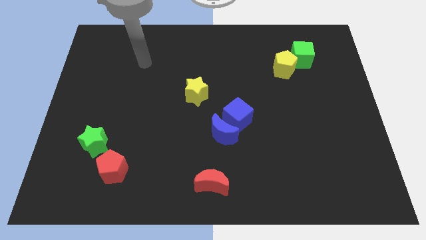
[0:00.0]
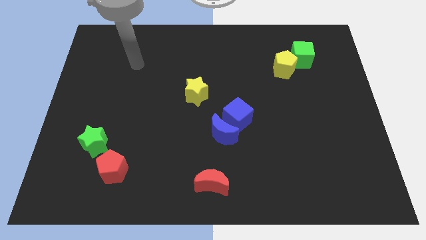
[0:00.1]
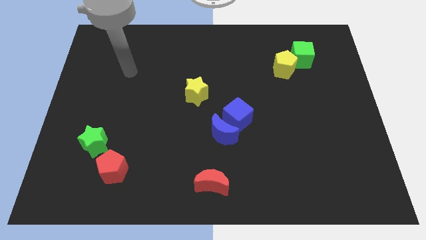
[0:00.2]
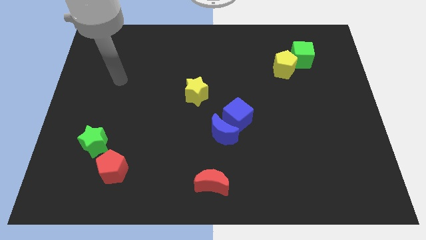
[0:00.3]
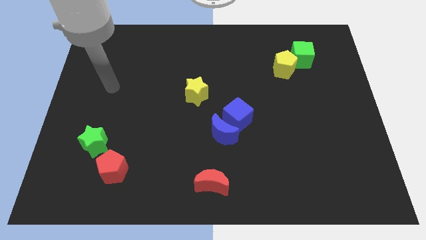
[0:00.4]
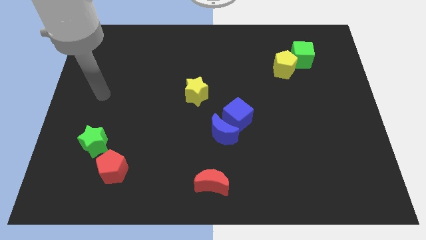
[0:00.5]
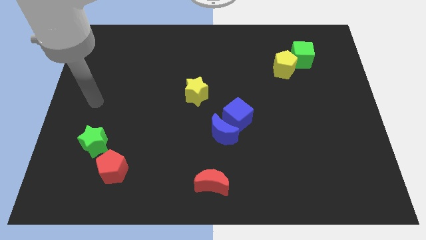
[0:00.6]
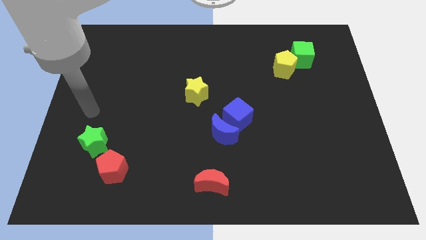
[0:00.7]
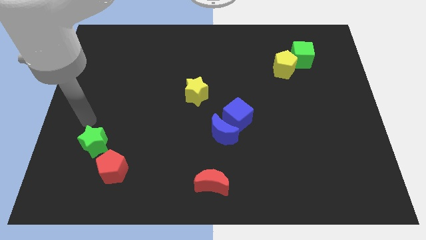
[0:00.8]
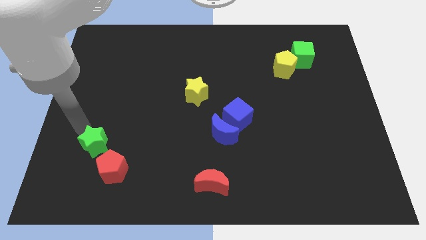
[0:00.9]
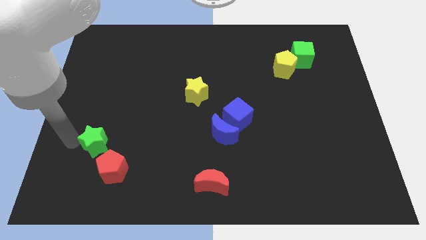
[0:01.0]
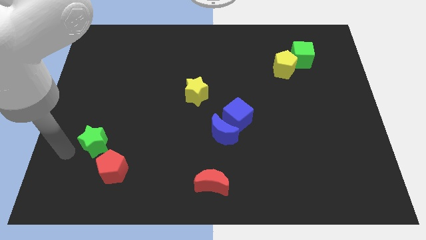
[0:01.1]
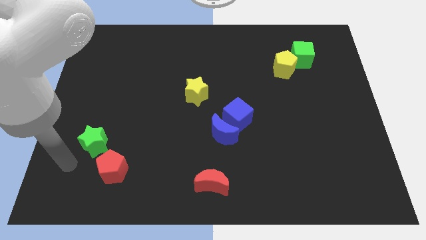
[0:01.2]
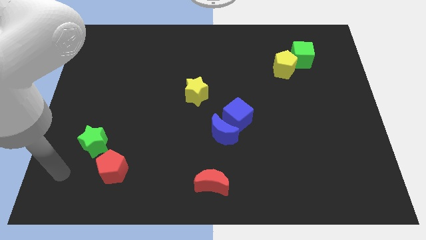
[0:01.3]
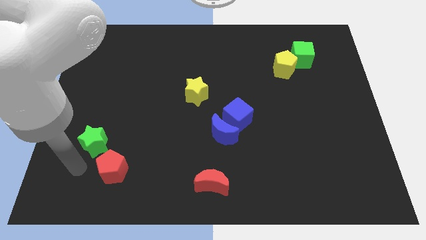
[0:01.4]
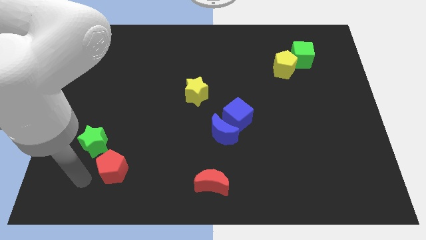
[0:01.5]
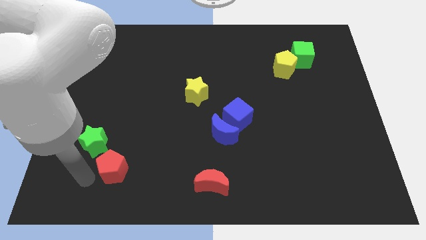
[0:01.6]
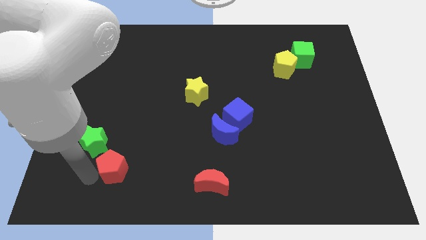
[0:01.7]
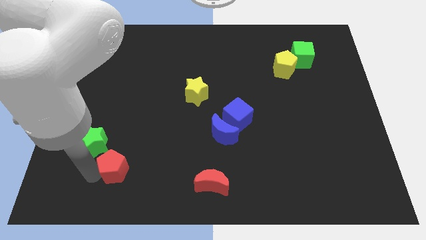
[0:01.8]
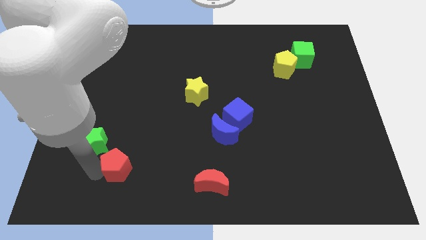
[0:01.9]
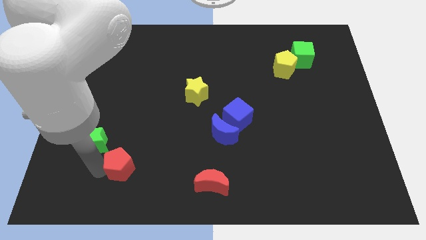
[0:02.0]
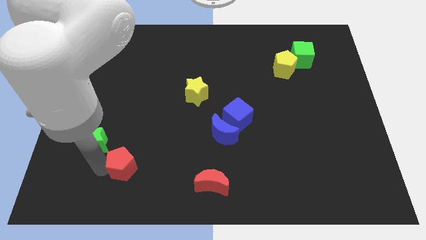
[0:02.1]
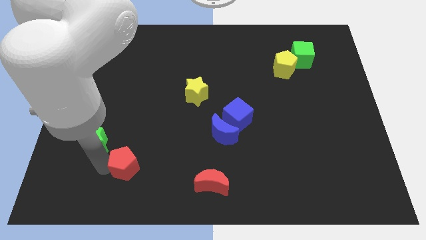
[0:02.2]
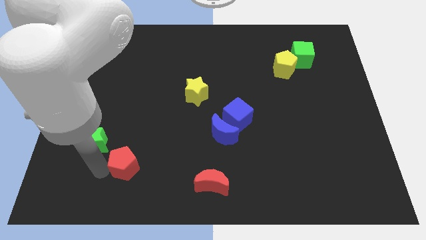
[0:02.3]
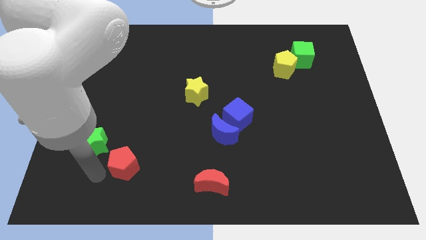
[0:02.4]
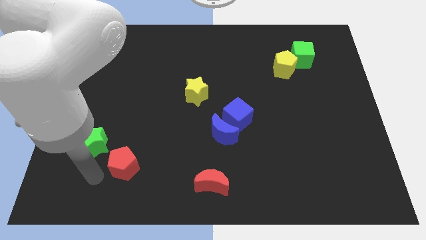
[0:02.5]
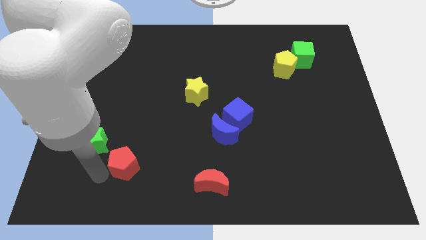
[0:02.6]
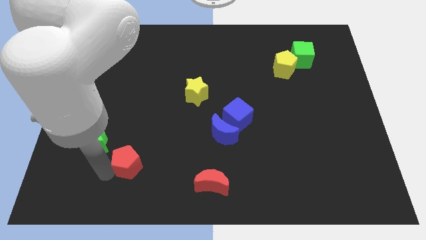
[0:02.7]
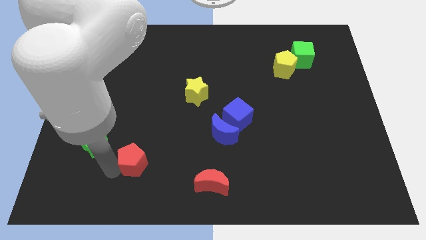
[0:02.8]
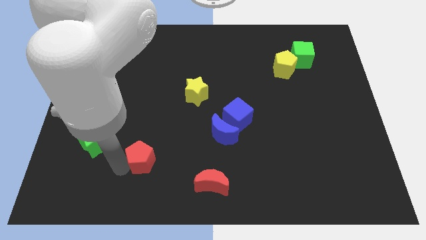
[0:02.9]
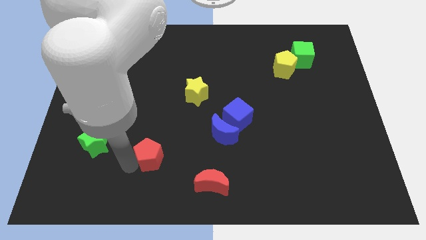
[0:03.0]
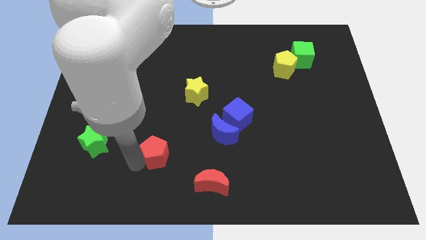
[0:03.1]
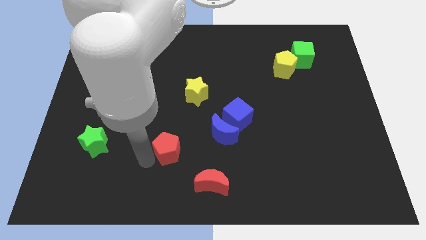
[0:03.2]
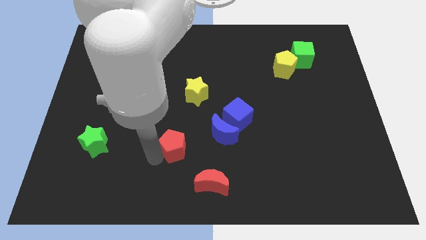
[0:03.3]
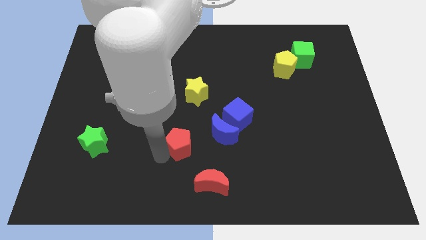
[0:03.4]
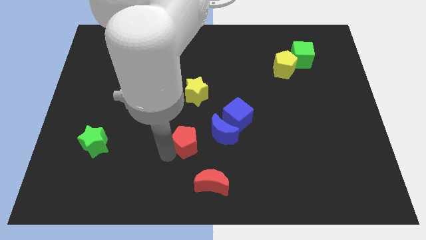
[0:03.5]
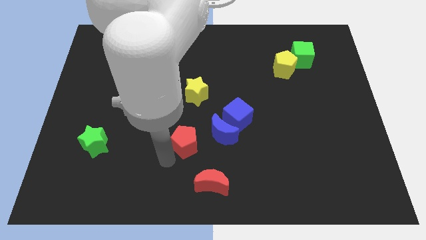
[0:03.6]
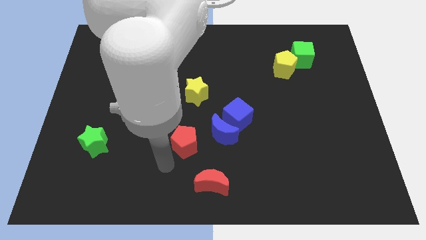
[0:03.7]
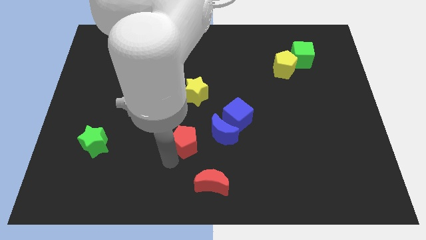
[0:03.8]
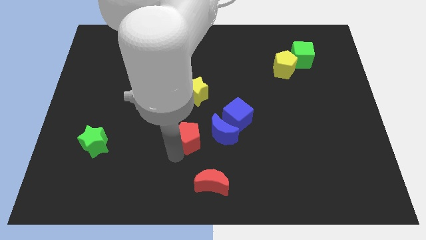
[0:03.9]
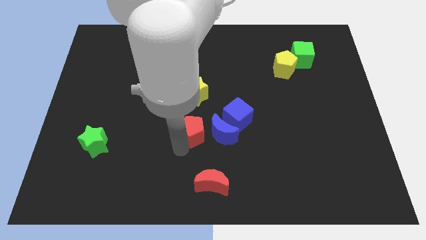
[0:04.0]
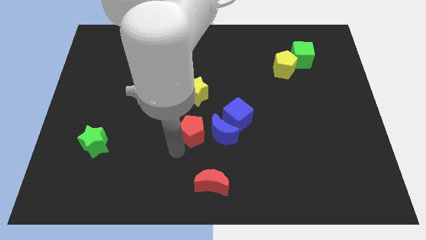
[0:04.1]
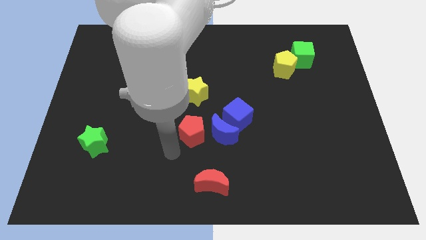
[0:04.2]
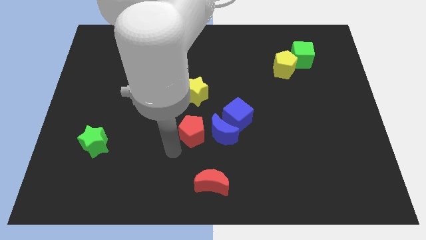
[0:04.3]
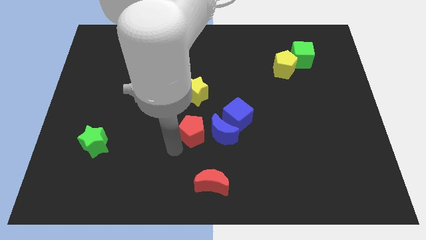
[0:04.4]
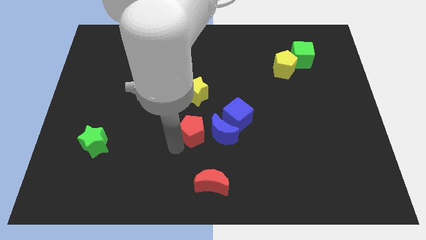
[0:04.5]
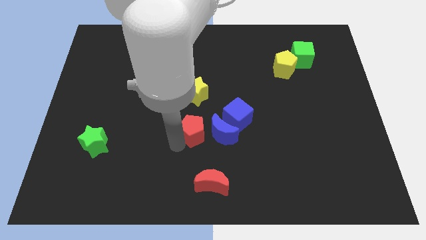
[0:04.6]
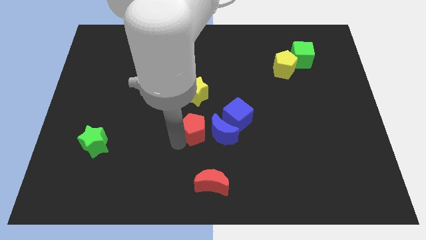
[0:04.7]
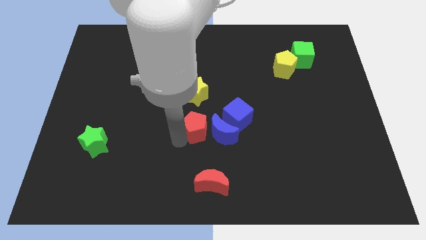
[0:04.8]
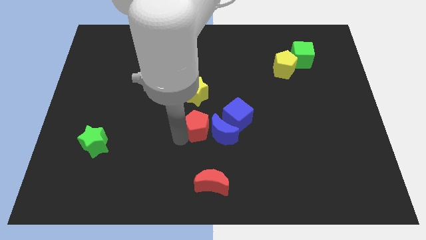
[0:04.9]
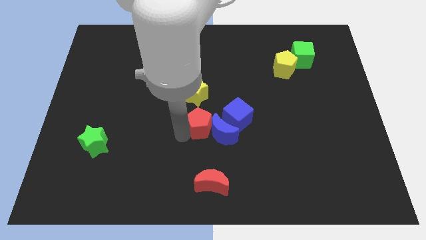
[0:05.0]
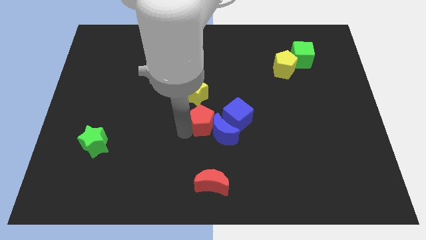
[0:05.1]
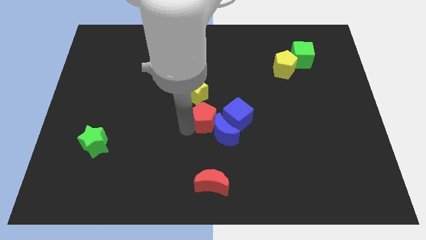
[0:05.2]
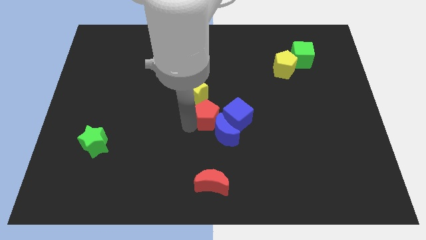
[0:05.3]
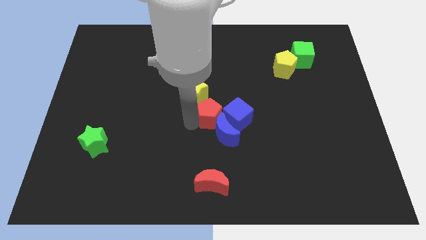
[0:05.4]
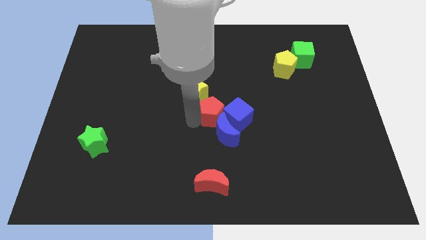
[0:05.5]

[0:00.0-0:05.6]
put the red pentagon next to the blue cube

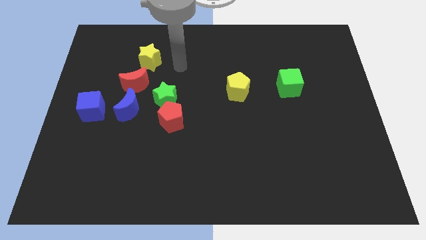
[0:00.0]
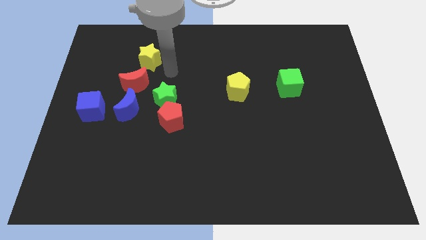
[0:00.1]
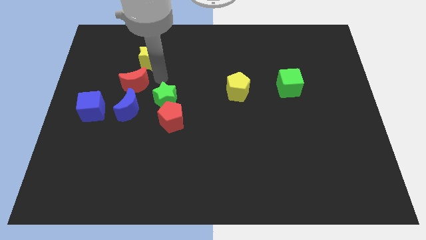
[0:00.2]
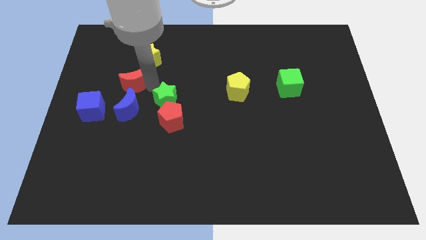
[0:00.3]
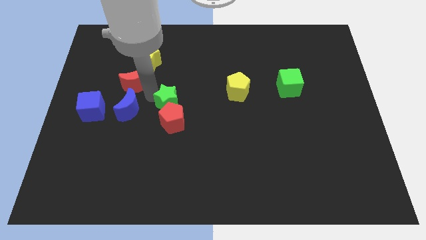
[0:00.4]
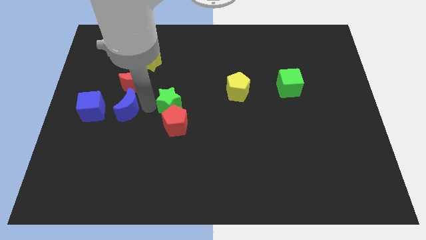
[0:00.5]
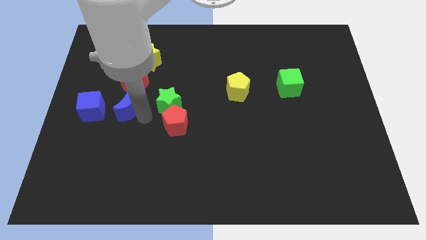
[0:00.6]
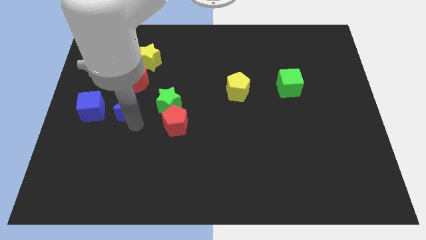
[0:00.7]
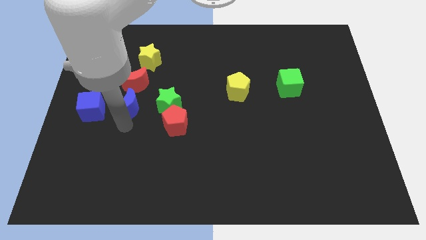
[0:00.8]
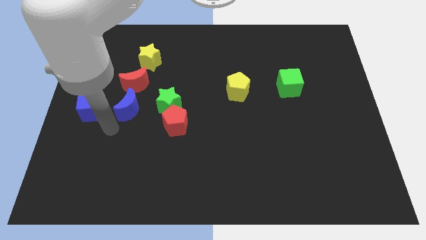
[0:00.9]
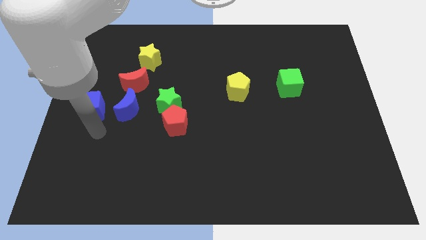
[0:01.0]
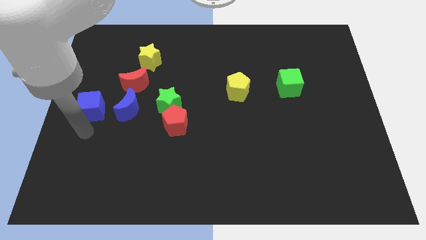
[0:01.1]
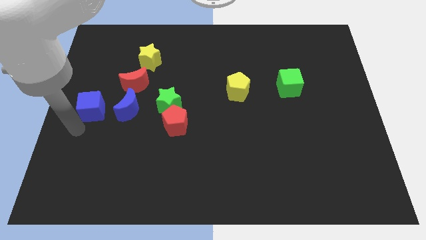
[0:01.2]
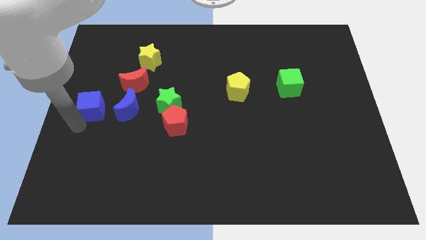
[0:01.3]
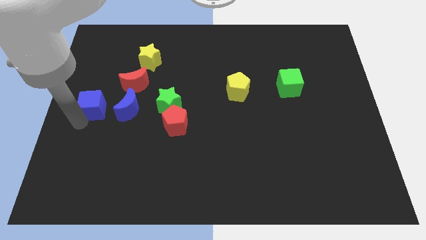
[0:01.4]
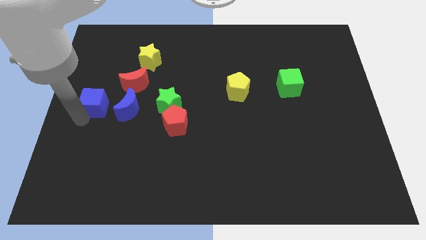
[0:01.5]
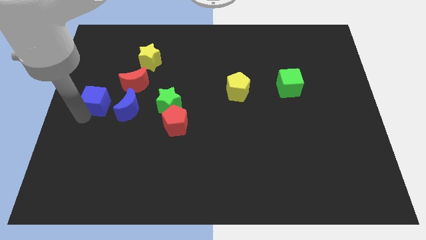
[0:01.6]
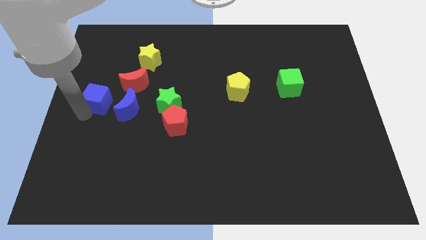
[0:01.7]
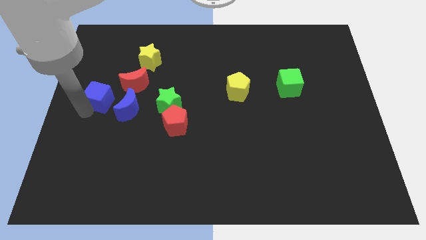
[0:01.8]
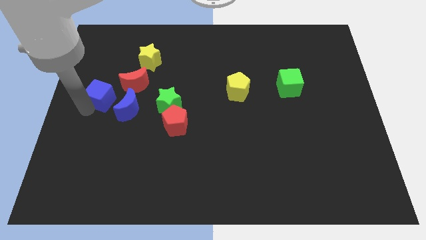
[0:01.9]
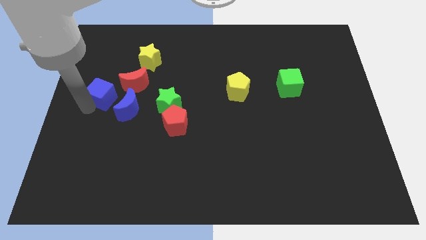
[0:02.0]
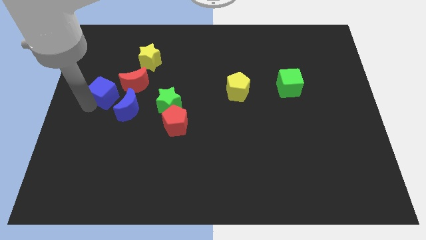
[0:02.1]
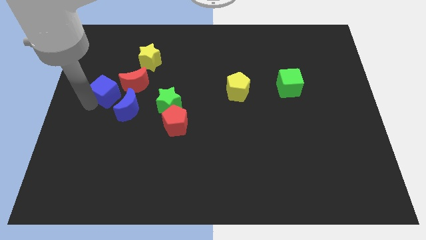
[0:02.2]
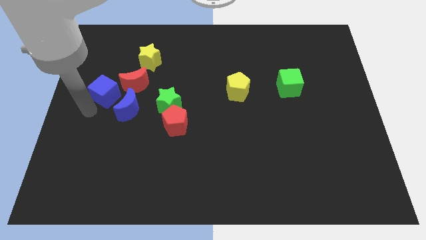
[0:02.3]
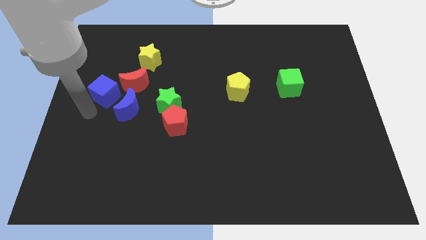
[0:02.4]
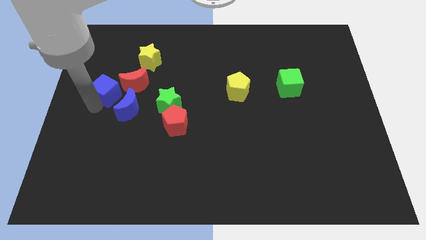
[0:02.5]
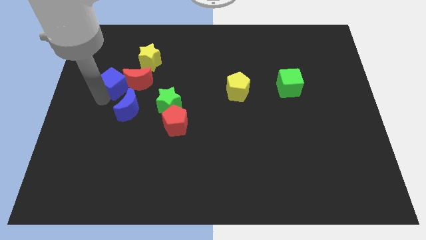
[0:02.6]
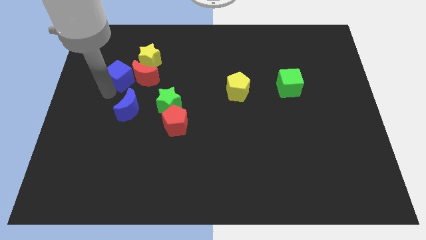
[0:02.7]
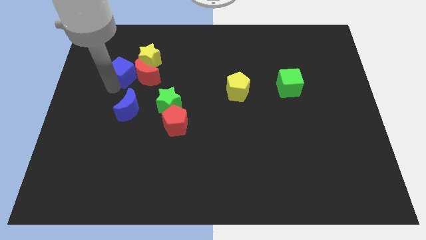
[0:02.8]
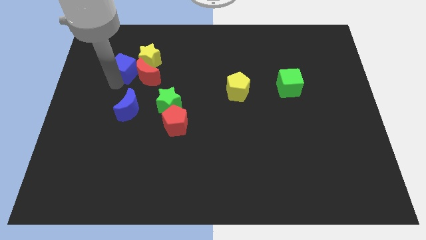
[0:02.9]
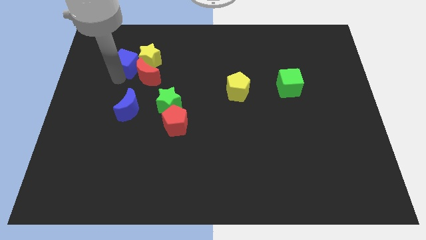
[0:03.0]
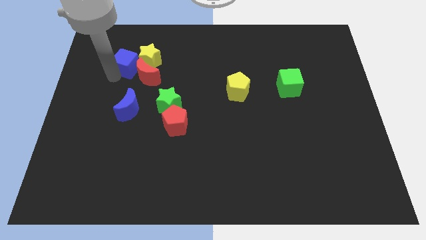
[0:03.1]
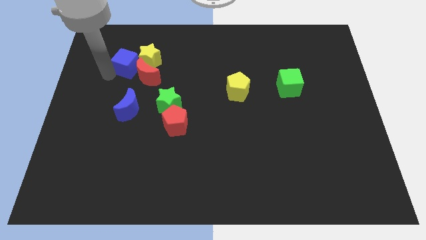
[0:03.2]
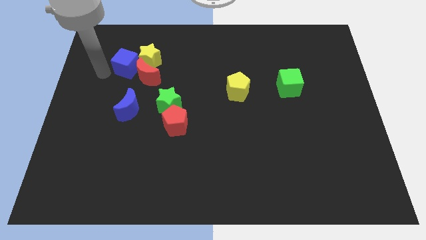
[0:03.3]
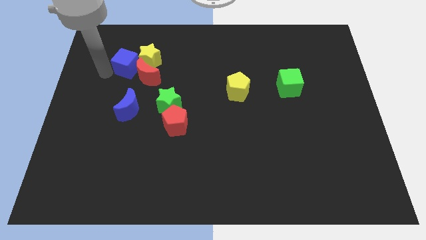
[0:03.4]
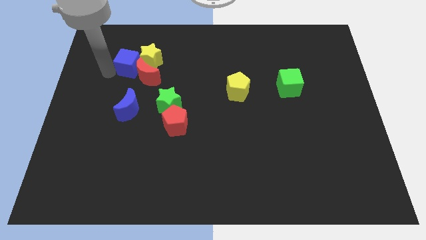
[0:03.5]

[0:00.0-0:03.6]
put the blue cube close to the yellow star
